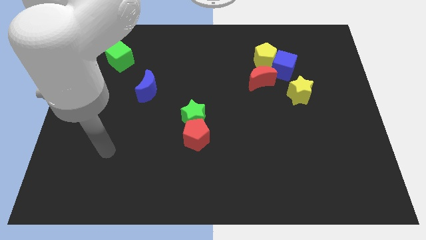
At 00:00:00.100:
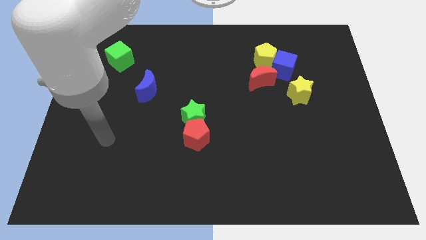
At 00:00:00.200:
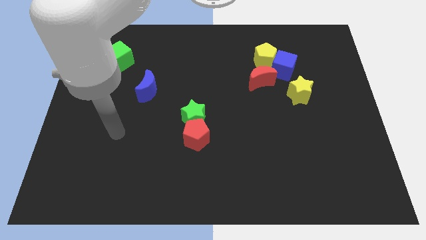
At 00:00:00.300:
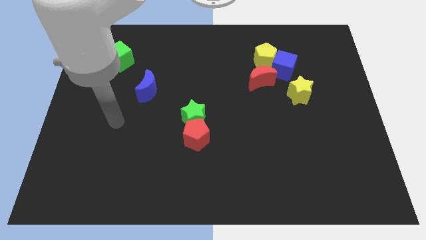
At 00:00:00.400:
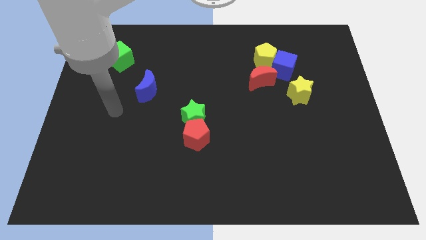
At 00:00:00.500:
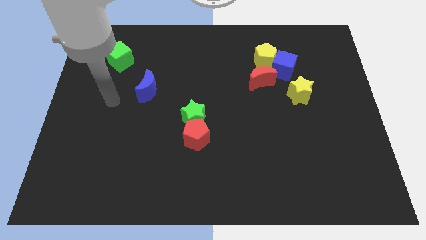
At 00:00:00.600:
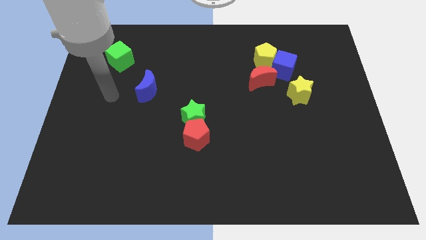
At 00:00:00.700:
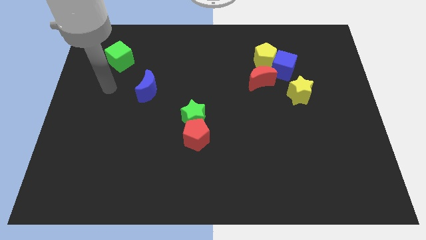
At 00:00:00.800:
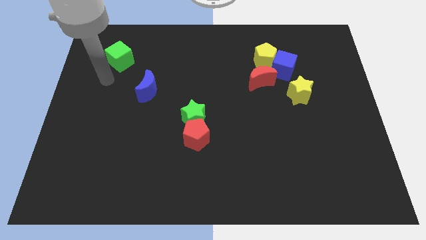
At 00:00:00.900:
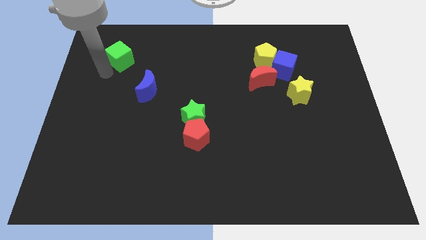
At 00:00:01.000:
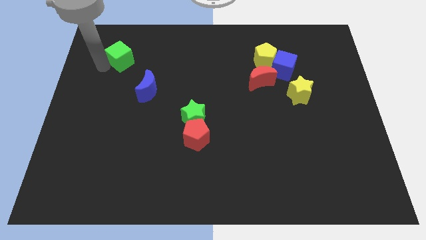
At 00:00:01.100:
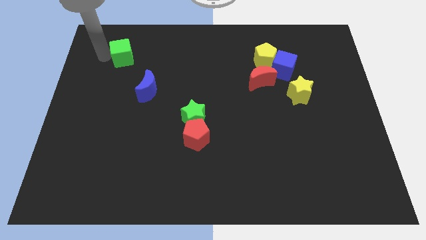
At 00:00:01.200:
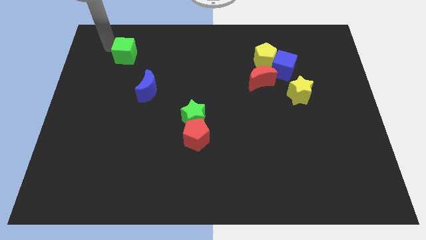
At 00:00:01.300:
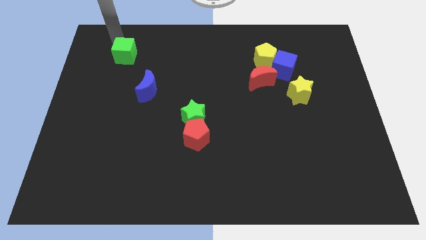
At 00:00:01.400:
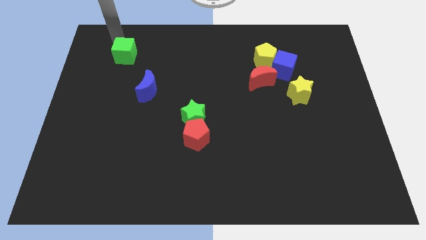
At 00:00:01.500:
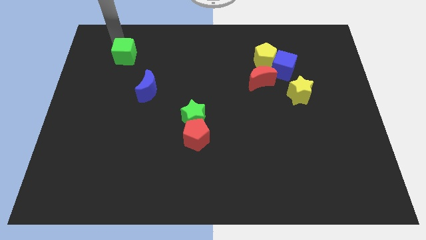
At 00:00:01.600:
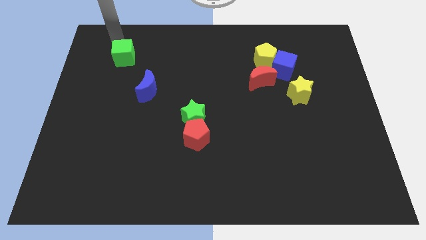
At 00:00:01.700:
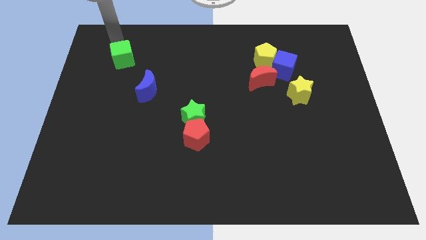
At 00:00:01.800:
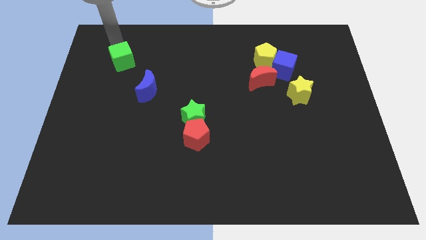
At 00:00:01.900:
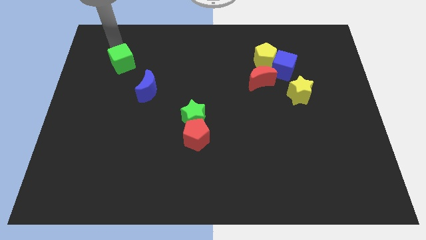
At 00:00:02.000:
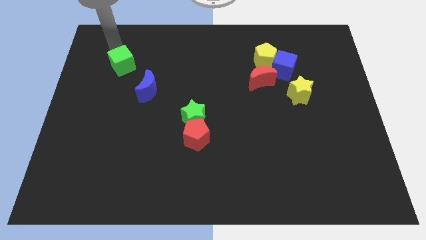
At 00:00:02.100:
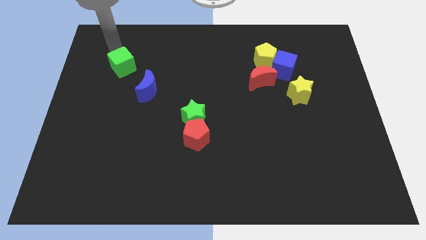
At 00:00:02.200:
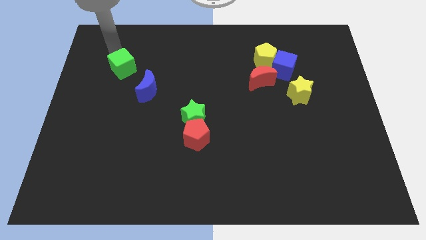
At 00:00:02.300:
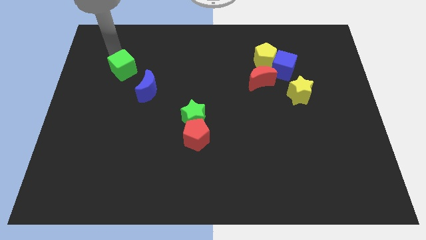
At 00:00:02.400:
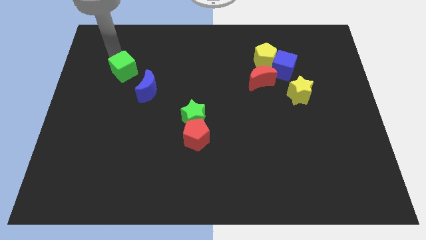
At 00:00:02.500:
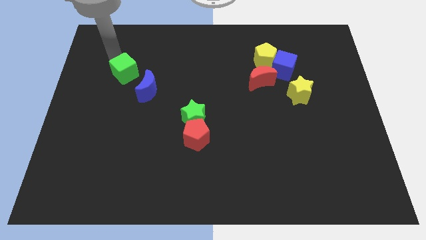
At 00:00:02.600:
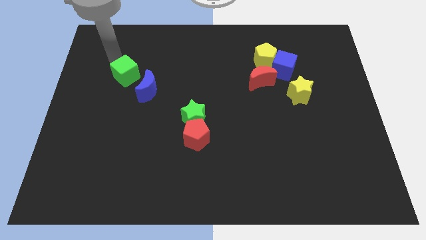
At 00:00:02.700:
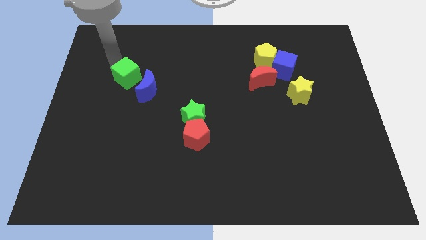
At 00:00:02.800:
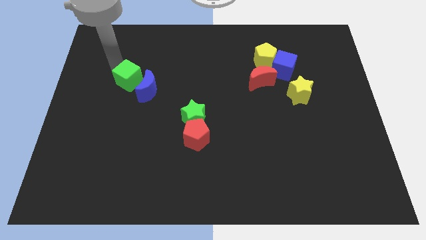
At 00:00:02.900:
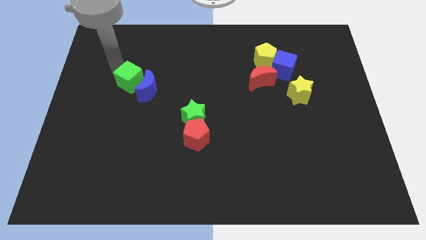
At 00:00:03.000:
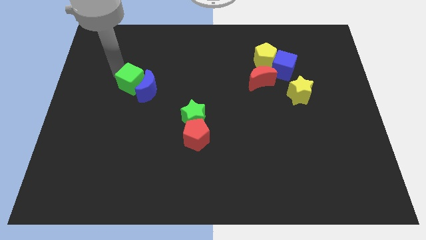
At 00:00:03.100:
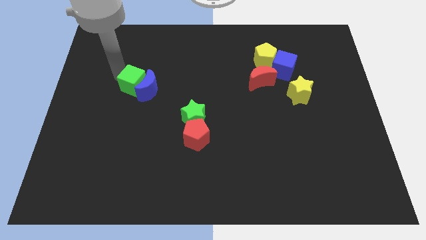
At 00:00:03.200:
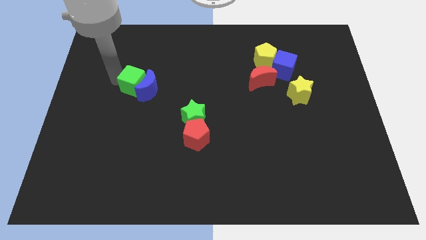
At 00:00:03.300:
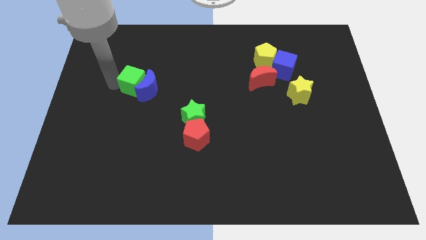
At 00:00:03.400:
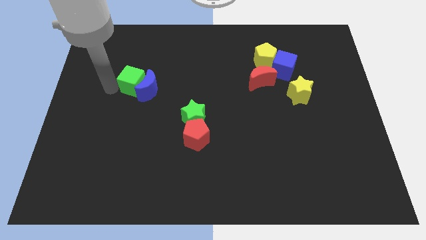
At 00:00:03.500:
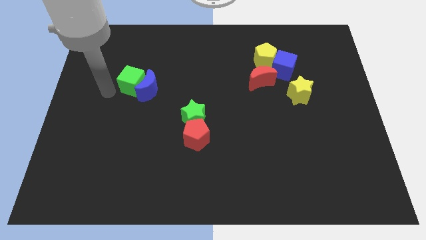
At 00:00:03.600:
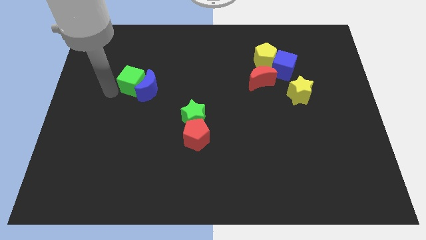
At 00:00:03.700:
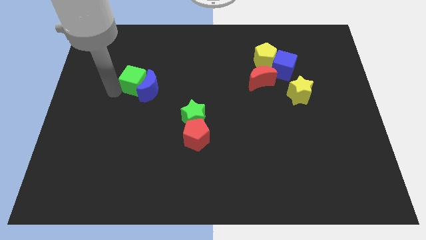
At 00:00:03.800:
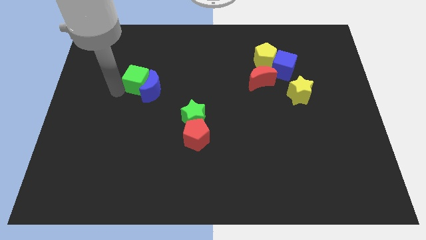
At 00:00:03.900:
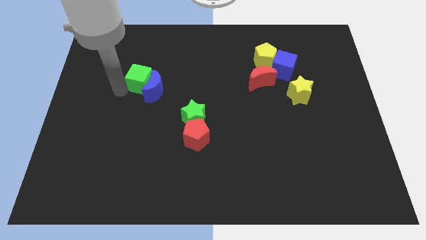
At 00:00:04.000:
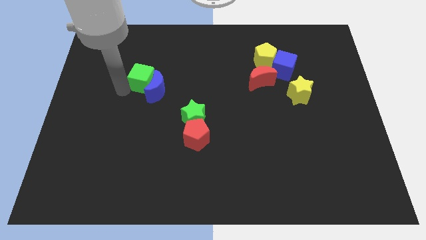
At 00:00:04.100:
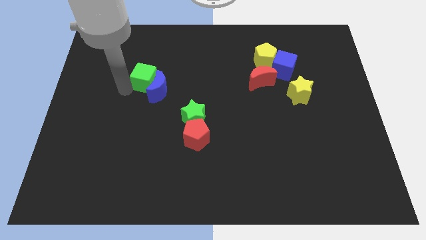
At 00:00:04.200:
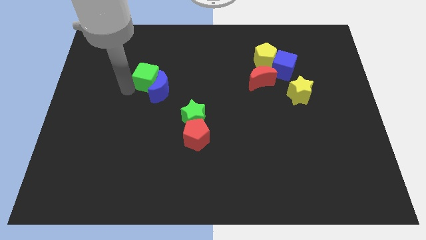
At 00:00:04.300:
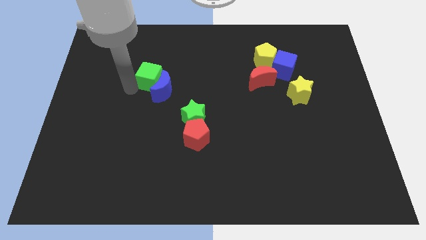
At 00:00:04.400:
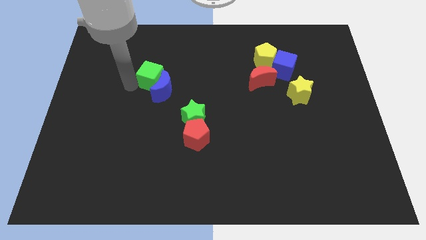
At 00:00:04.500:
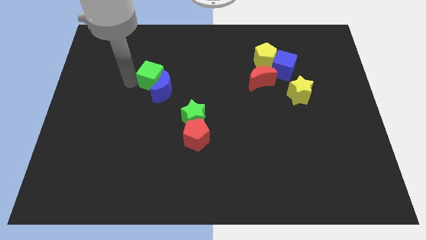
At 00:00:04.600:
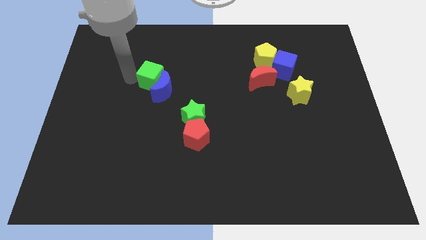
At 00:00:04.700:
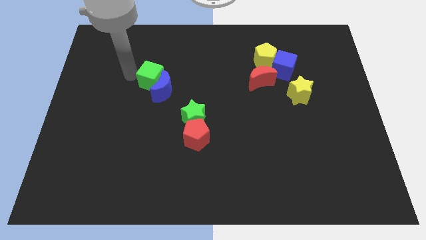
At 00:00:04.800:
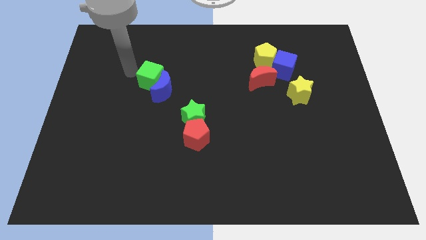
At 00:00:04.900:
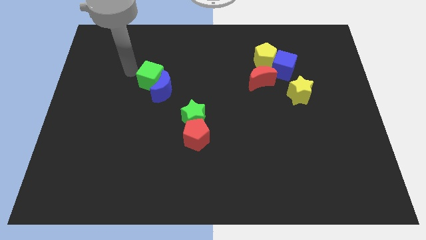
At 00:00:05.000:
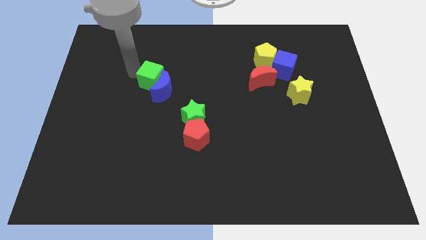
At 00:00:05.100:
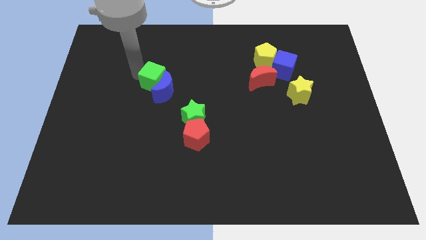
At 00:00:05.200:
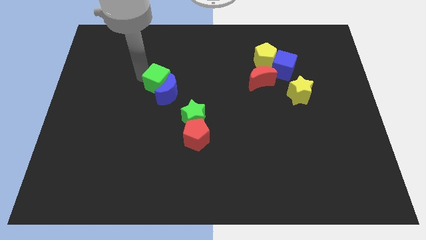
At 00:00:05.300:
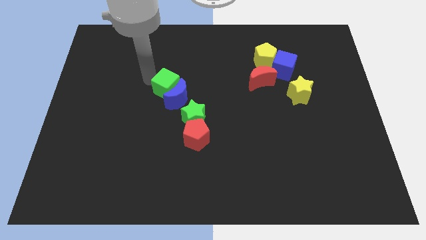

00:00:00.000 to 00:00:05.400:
slide the green cube to the middle of the board

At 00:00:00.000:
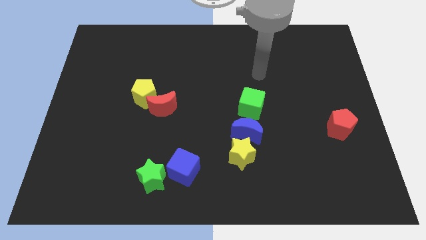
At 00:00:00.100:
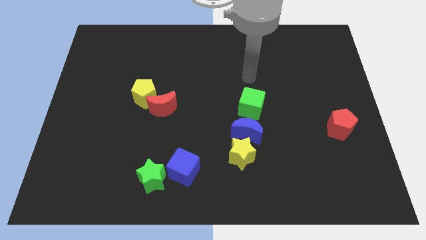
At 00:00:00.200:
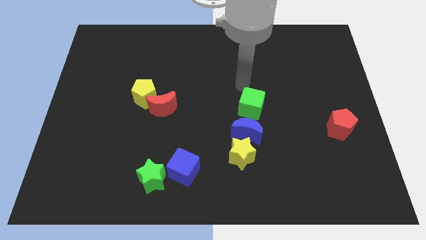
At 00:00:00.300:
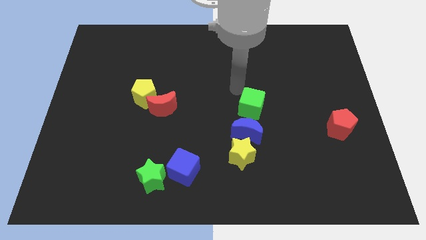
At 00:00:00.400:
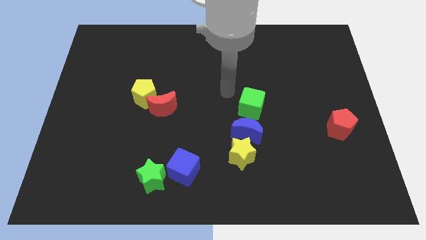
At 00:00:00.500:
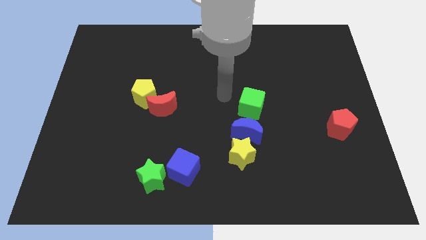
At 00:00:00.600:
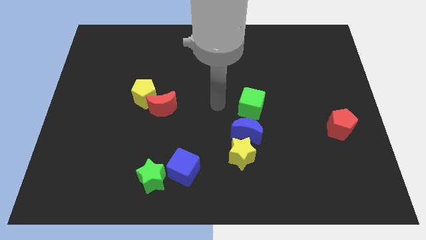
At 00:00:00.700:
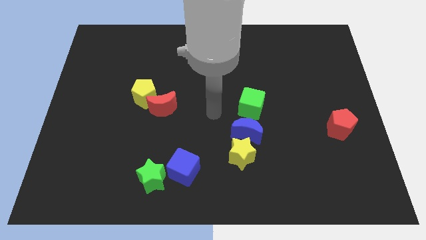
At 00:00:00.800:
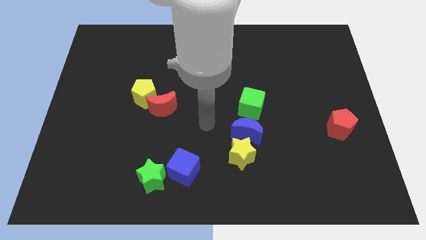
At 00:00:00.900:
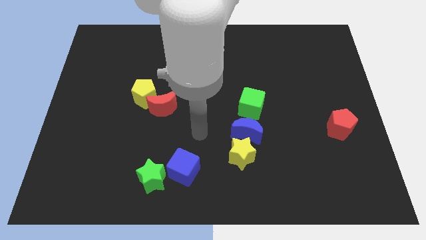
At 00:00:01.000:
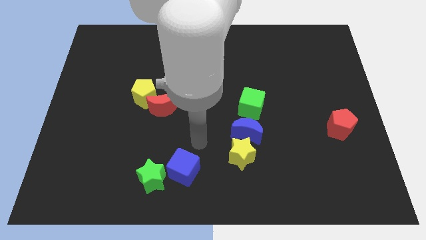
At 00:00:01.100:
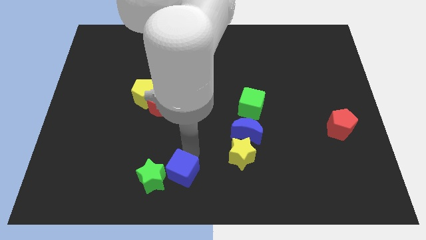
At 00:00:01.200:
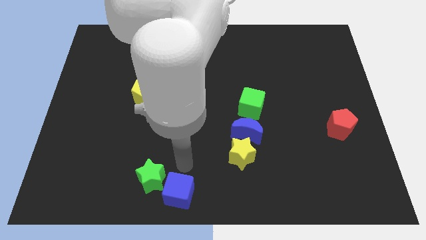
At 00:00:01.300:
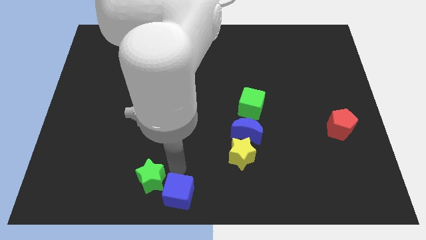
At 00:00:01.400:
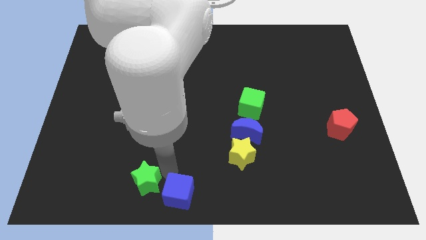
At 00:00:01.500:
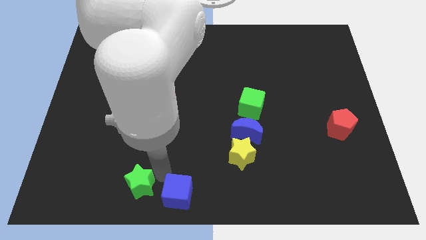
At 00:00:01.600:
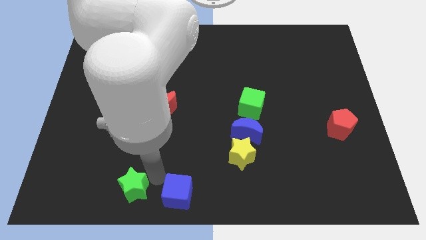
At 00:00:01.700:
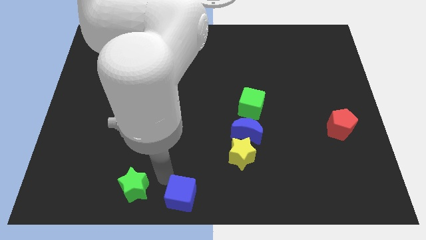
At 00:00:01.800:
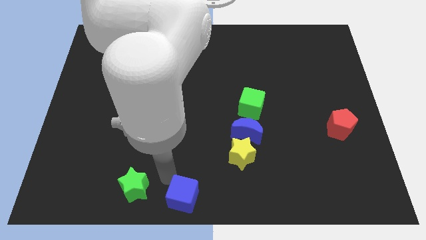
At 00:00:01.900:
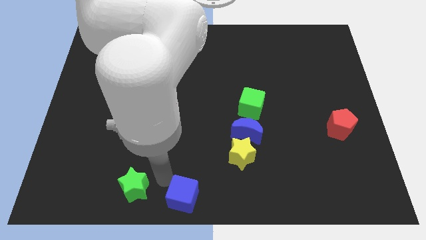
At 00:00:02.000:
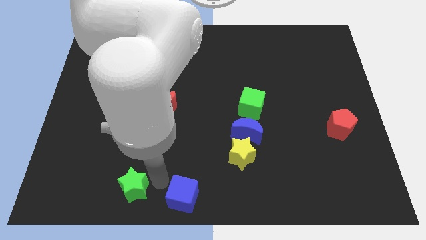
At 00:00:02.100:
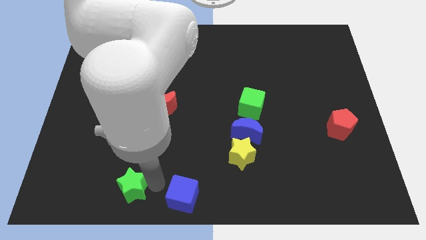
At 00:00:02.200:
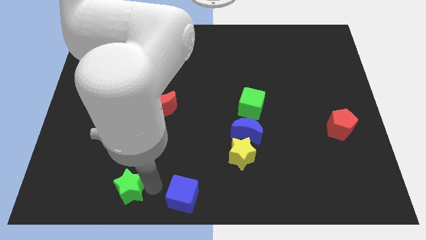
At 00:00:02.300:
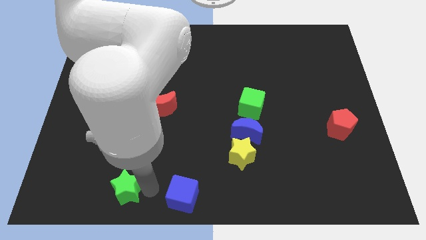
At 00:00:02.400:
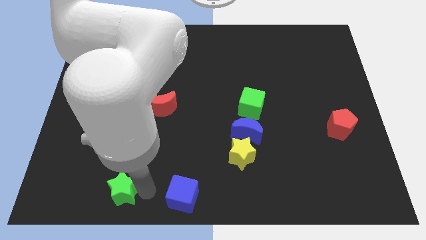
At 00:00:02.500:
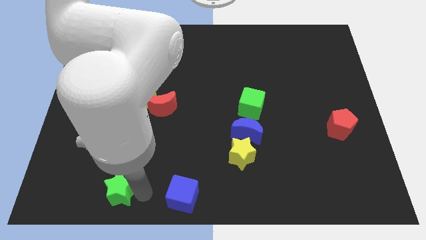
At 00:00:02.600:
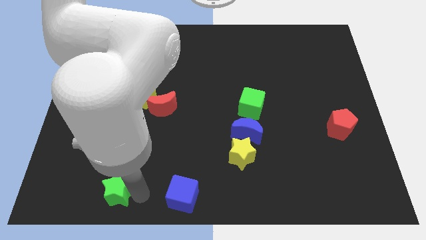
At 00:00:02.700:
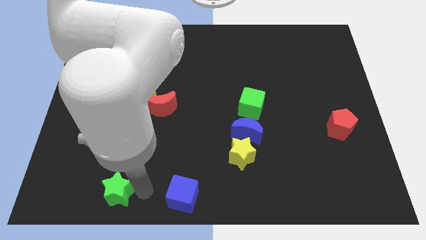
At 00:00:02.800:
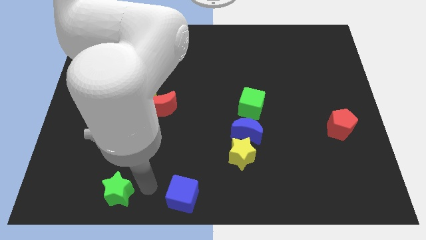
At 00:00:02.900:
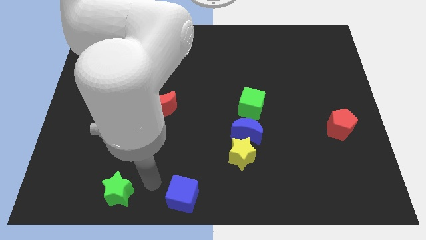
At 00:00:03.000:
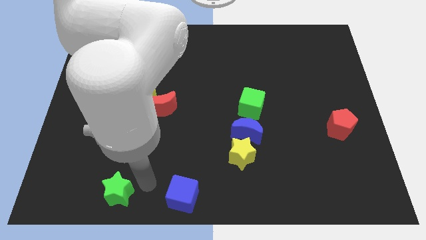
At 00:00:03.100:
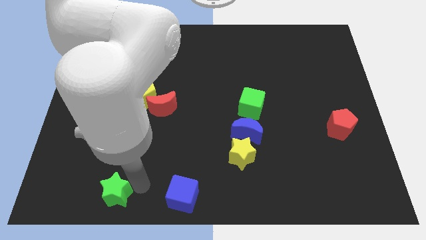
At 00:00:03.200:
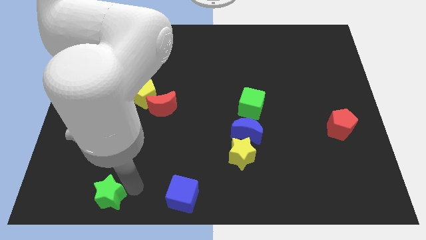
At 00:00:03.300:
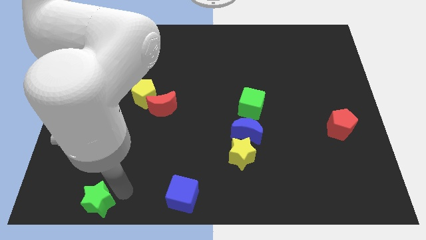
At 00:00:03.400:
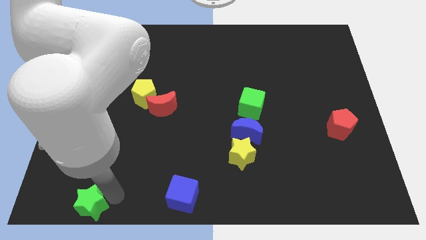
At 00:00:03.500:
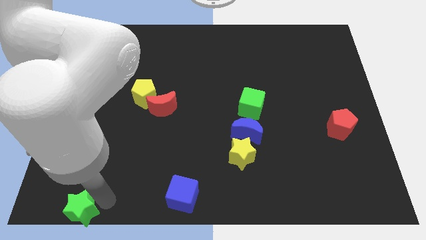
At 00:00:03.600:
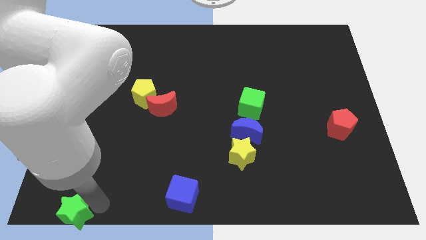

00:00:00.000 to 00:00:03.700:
push the green star to the bottom left of the board
